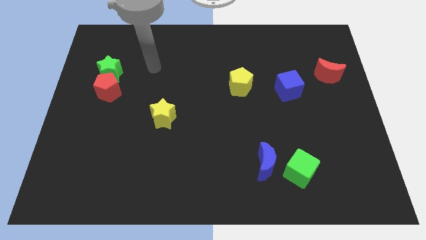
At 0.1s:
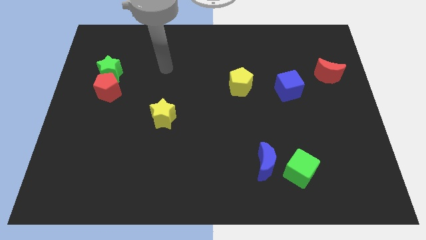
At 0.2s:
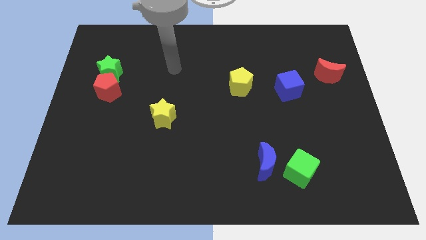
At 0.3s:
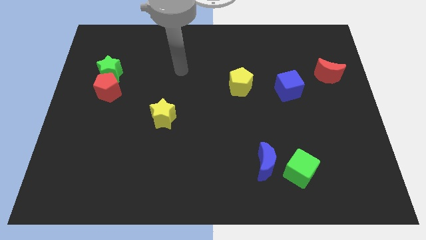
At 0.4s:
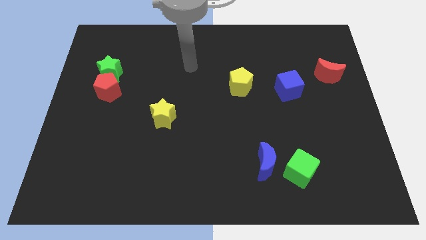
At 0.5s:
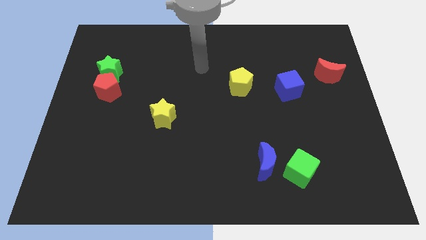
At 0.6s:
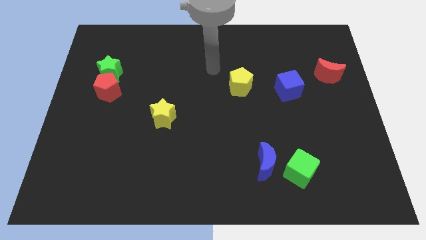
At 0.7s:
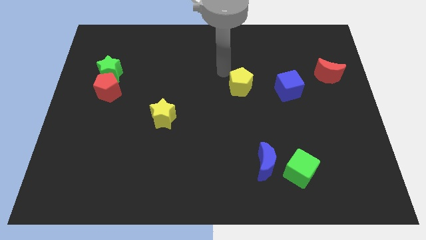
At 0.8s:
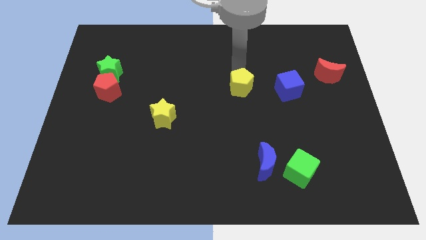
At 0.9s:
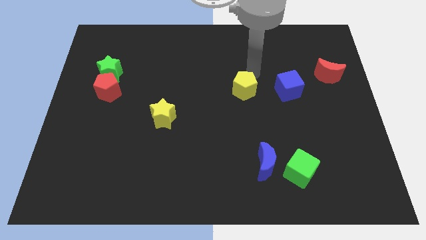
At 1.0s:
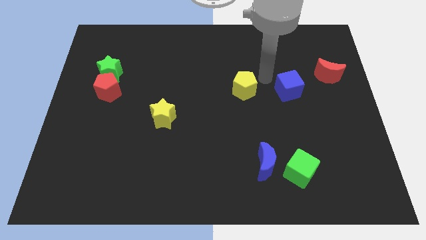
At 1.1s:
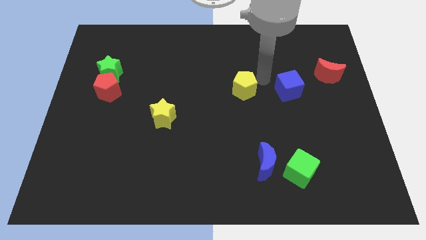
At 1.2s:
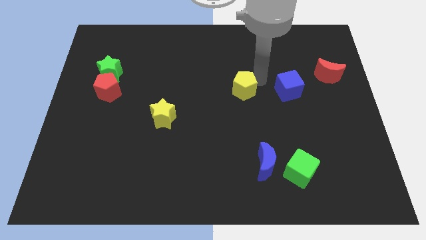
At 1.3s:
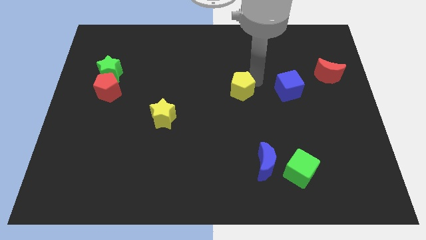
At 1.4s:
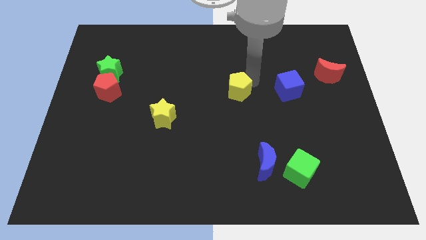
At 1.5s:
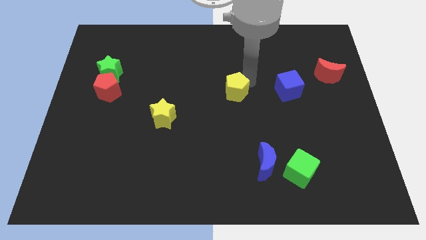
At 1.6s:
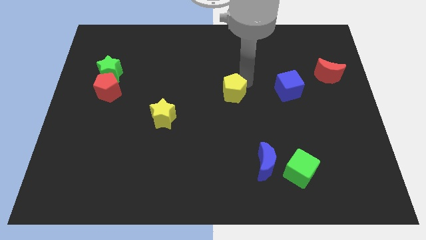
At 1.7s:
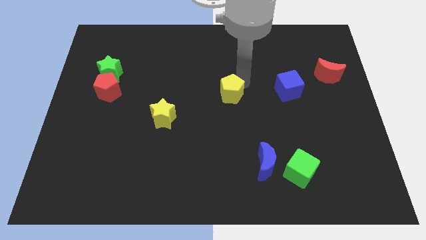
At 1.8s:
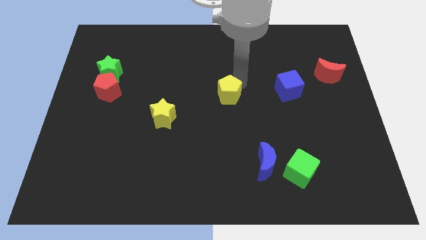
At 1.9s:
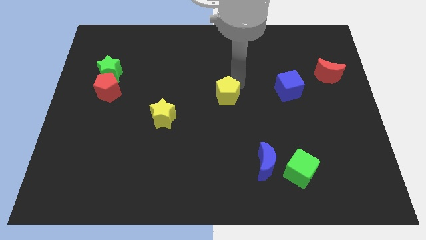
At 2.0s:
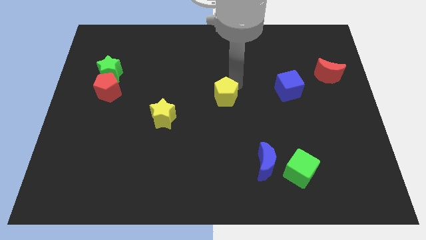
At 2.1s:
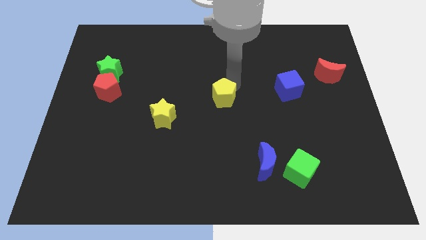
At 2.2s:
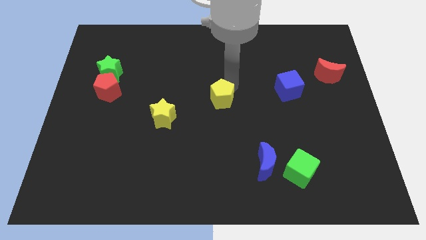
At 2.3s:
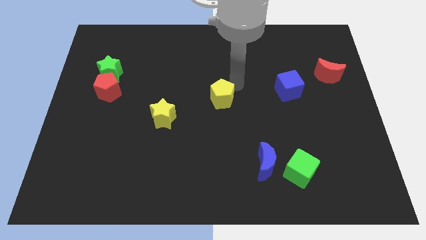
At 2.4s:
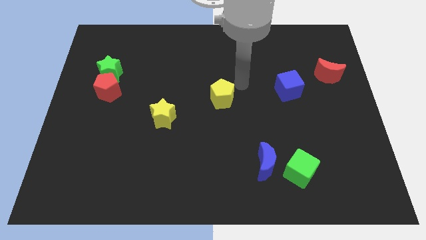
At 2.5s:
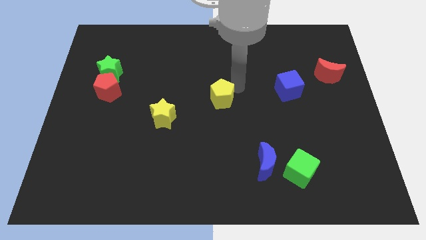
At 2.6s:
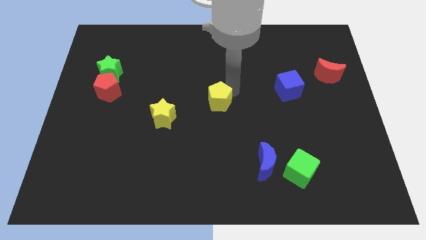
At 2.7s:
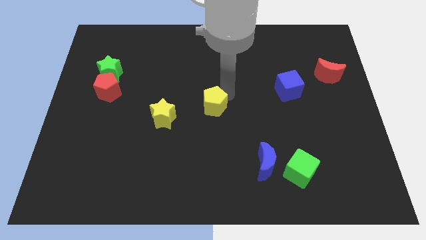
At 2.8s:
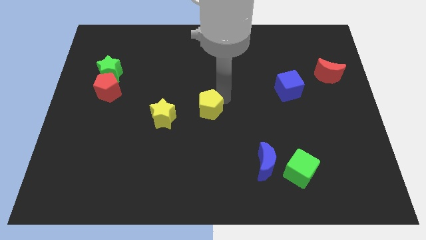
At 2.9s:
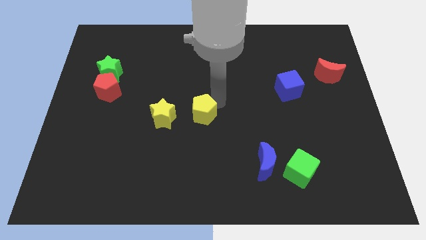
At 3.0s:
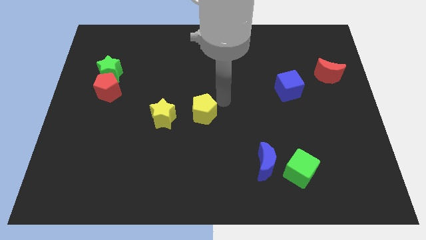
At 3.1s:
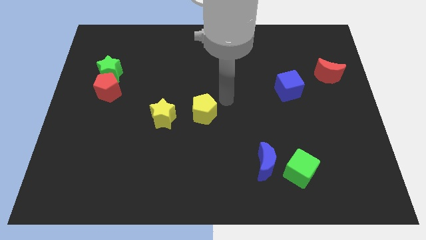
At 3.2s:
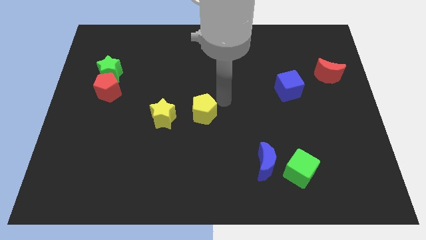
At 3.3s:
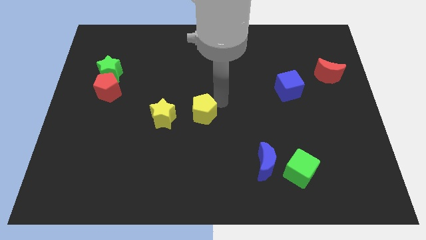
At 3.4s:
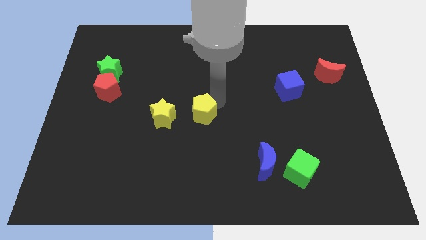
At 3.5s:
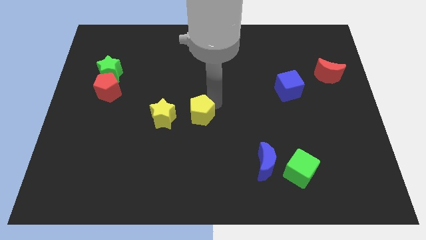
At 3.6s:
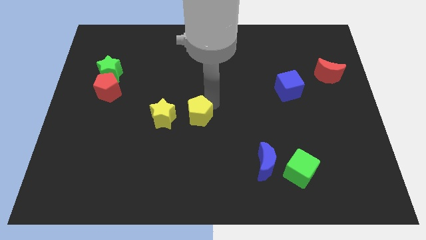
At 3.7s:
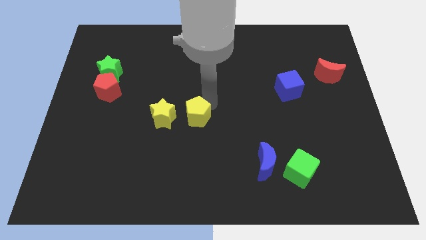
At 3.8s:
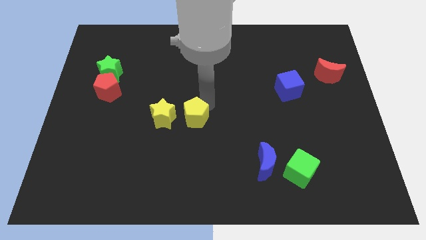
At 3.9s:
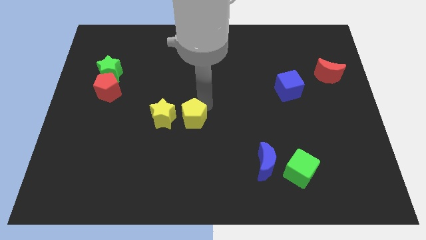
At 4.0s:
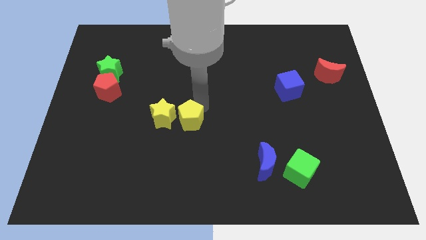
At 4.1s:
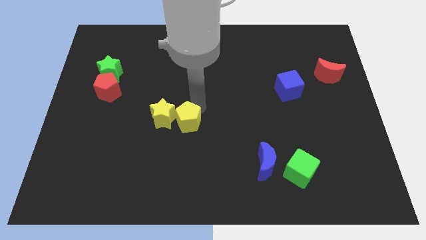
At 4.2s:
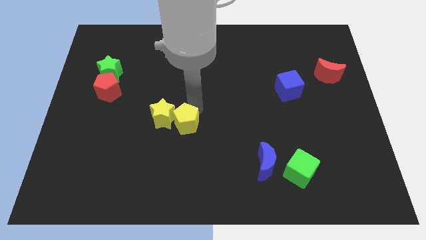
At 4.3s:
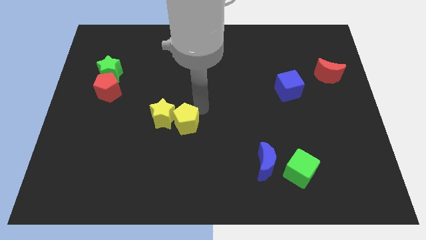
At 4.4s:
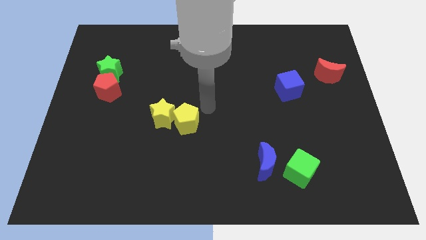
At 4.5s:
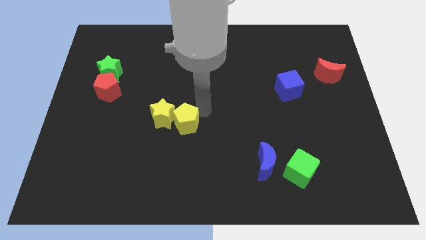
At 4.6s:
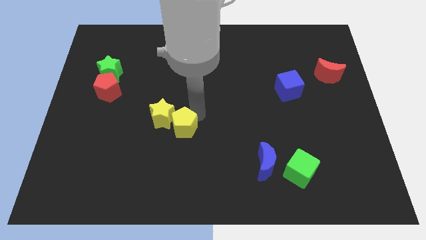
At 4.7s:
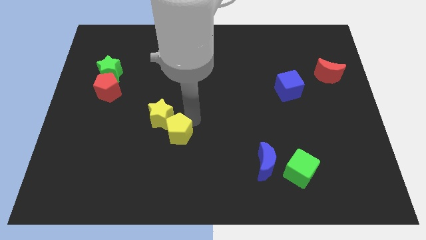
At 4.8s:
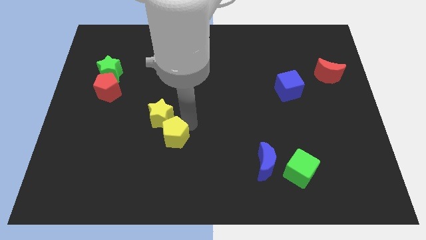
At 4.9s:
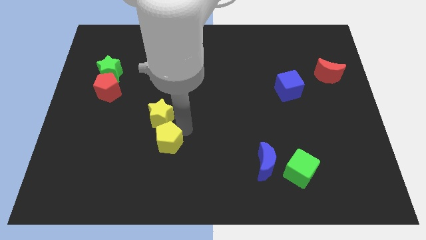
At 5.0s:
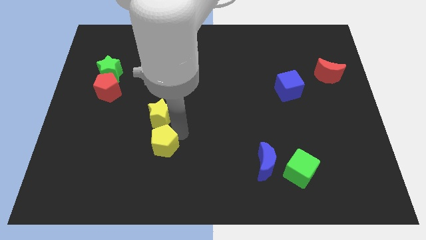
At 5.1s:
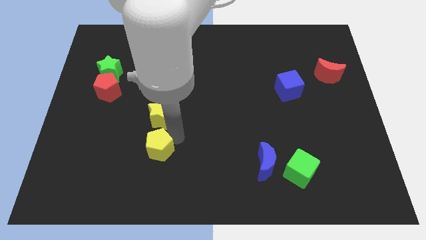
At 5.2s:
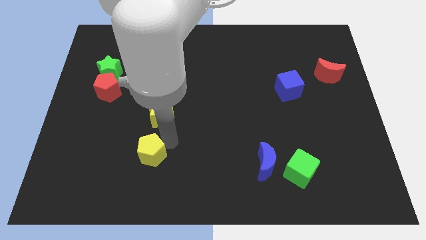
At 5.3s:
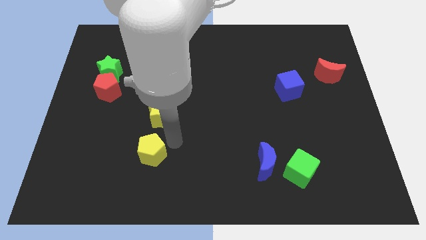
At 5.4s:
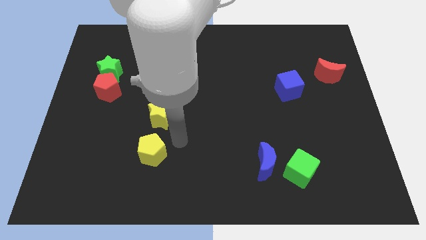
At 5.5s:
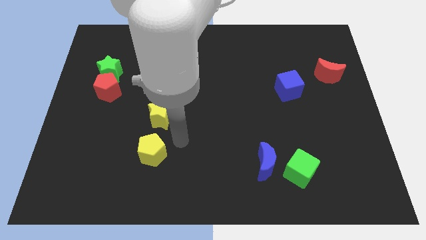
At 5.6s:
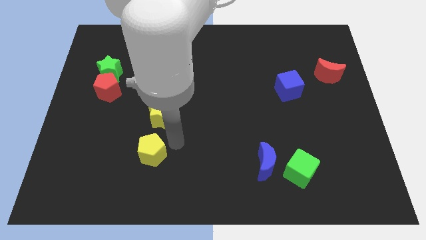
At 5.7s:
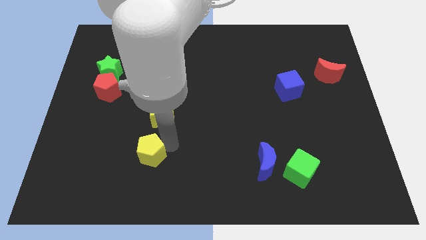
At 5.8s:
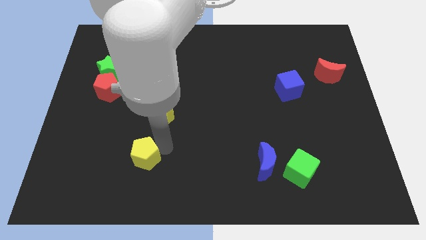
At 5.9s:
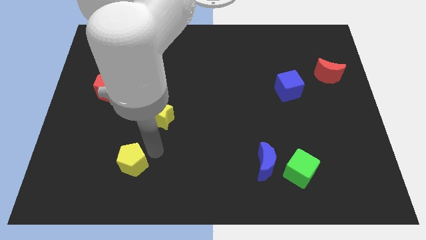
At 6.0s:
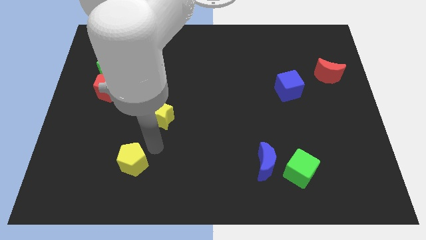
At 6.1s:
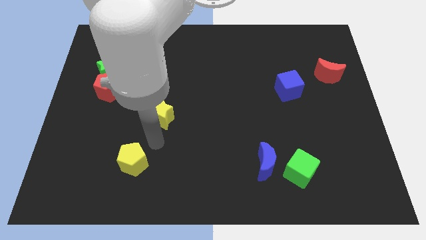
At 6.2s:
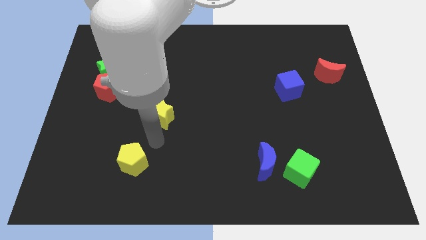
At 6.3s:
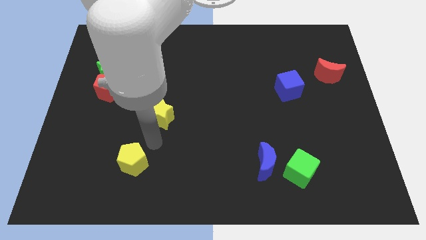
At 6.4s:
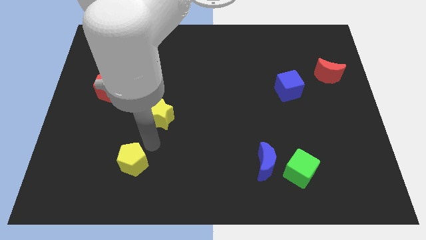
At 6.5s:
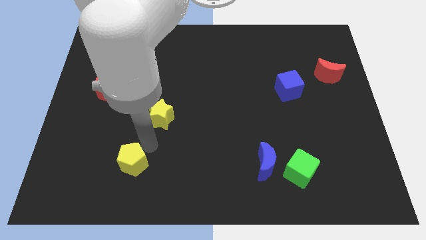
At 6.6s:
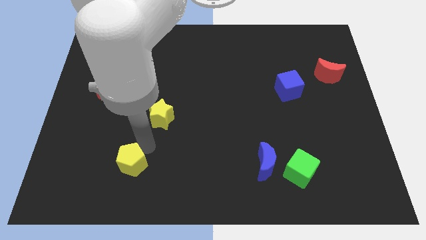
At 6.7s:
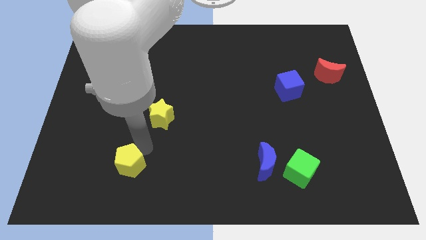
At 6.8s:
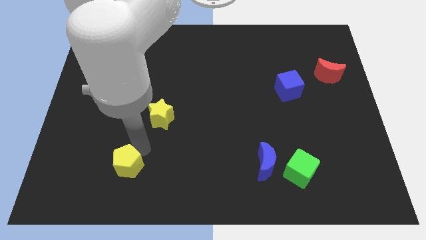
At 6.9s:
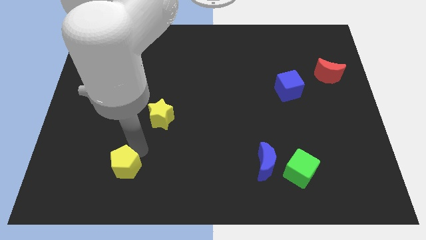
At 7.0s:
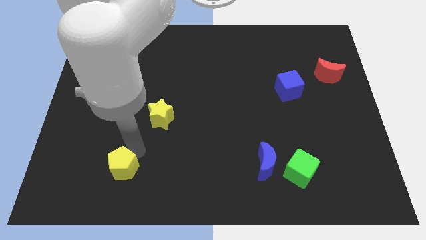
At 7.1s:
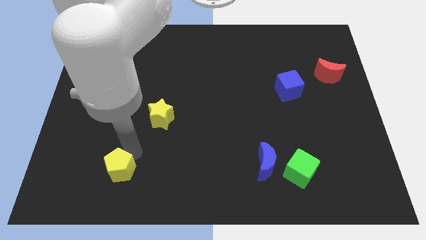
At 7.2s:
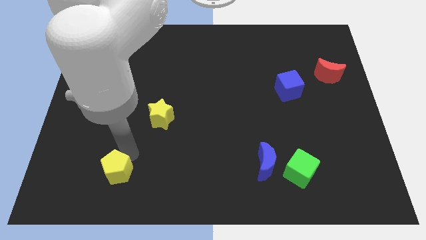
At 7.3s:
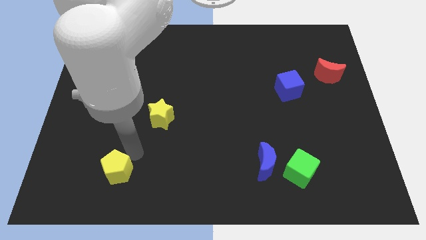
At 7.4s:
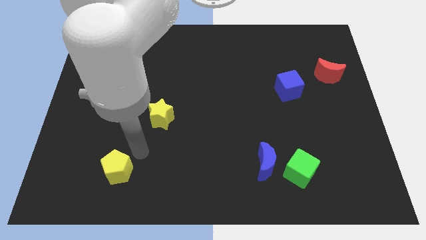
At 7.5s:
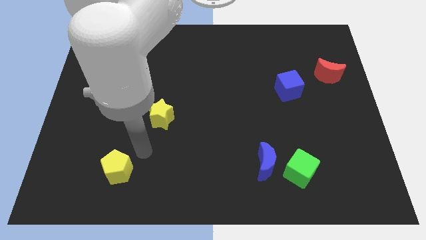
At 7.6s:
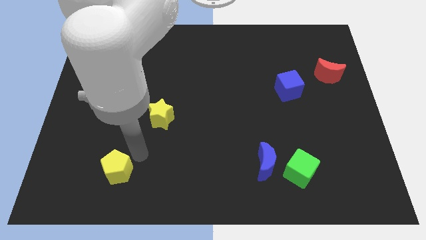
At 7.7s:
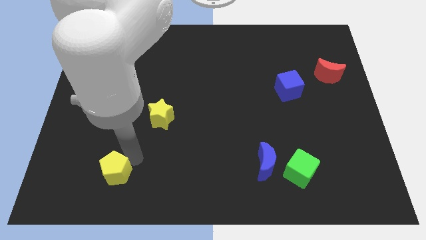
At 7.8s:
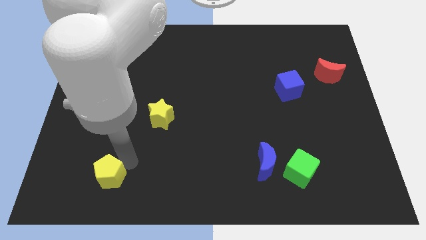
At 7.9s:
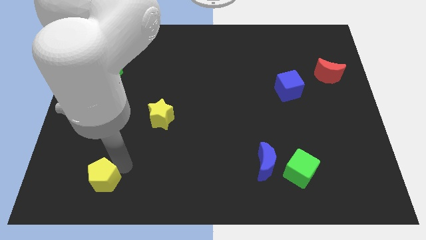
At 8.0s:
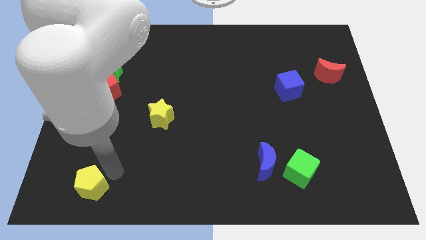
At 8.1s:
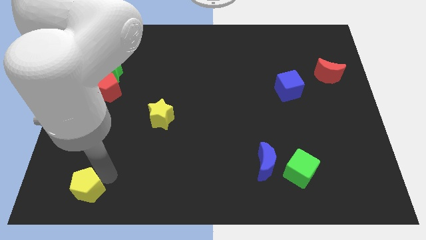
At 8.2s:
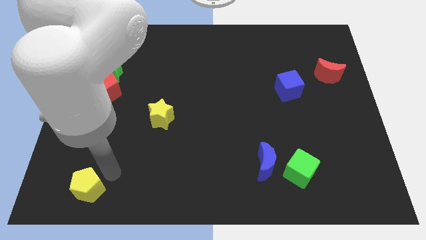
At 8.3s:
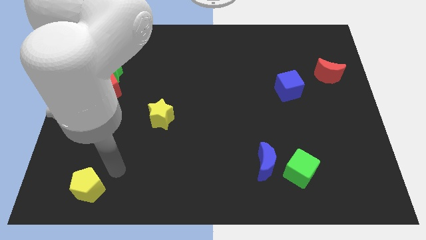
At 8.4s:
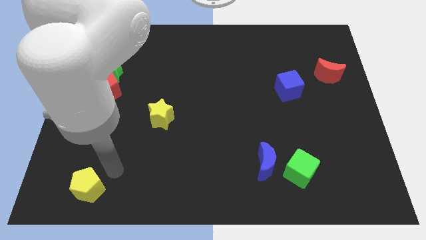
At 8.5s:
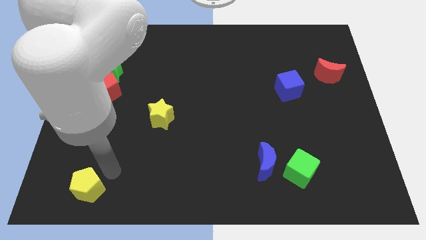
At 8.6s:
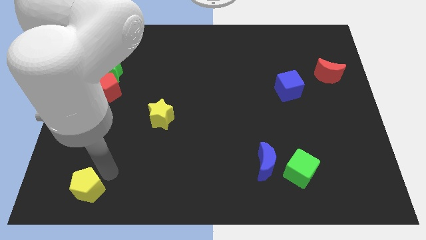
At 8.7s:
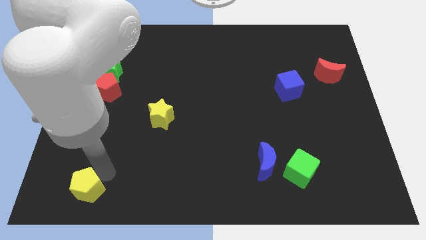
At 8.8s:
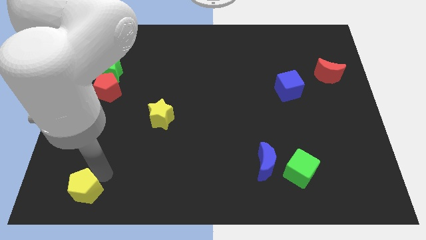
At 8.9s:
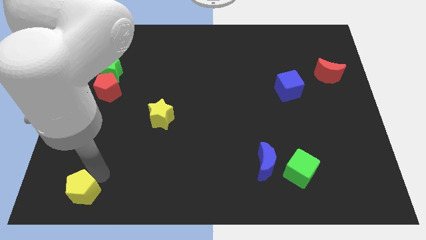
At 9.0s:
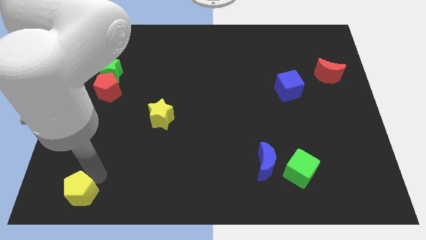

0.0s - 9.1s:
move the yellow pentagon to the lower left corner
